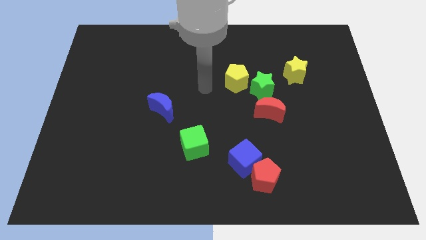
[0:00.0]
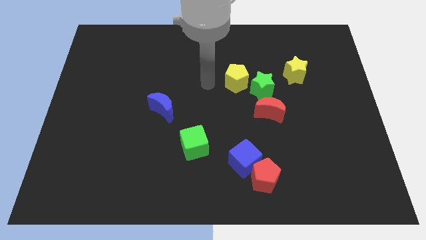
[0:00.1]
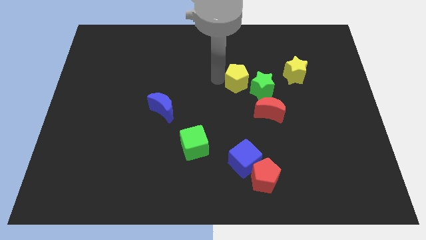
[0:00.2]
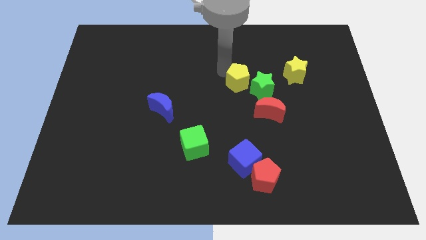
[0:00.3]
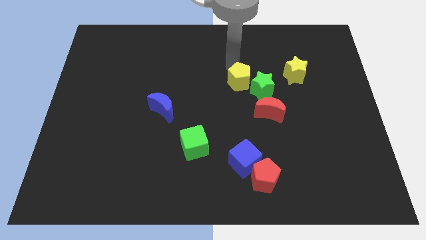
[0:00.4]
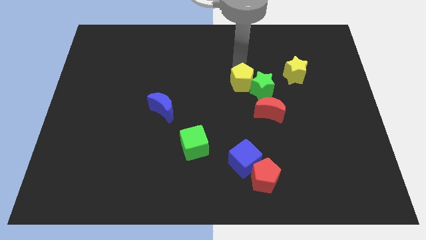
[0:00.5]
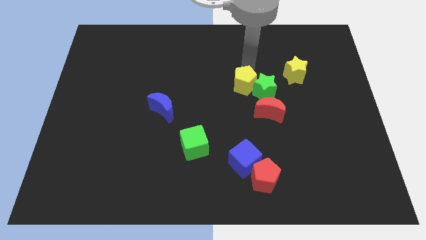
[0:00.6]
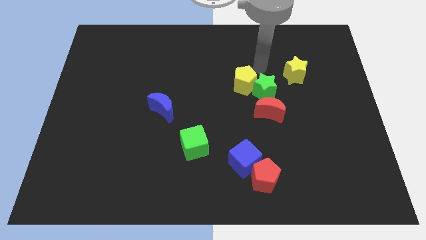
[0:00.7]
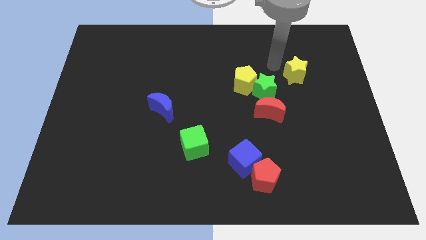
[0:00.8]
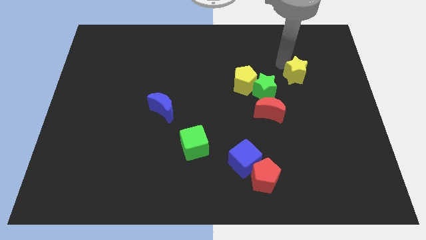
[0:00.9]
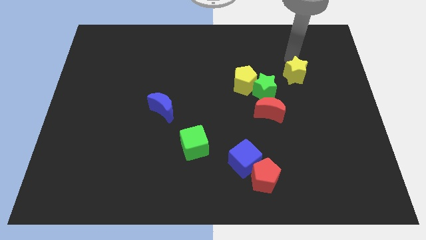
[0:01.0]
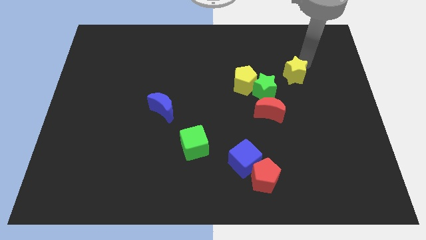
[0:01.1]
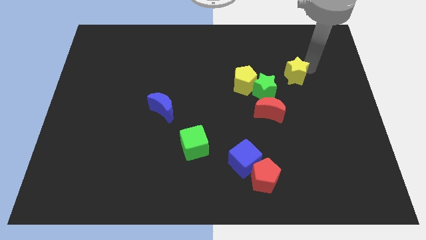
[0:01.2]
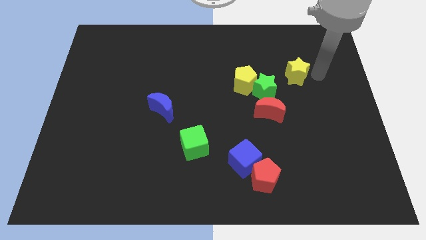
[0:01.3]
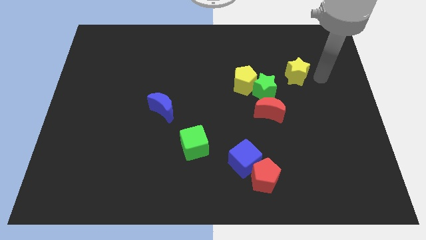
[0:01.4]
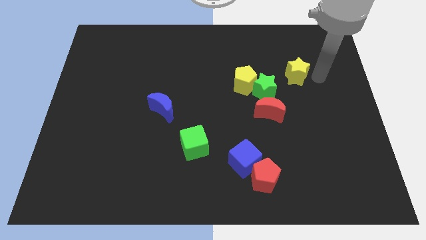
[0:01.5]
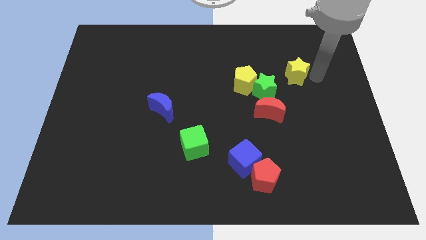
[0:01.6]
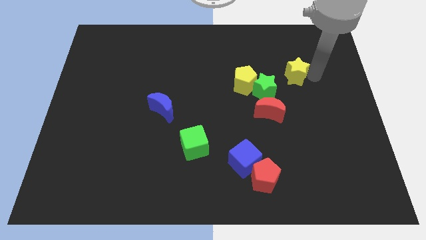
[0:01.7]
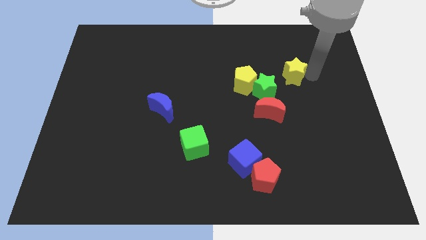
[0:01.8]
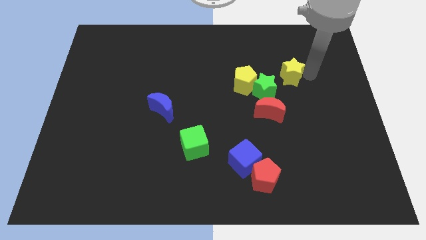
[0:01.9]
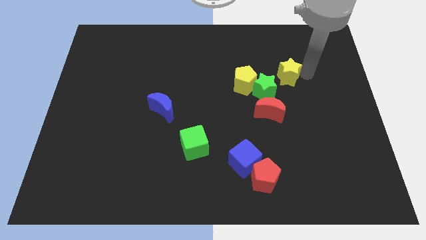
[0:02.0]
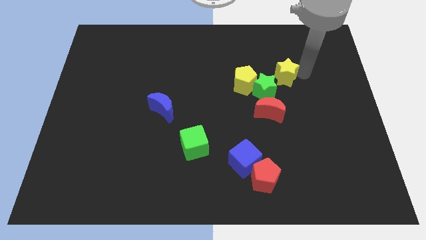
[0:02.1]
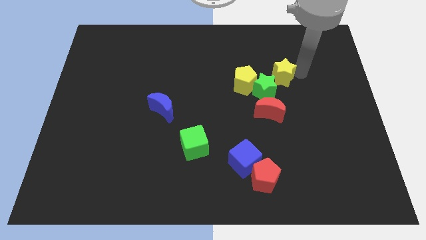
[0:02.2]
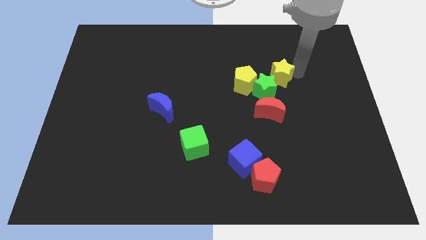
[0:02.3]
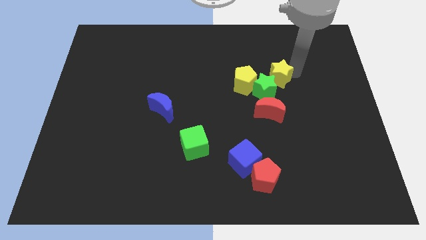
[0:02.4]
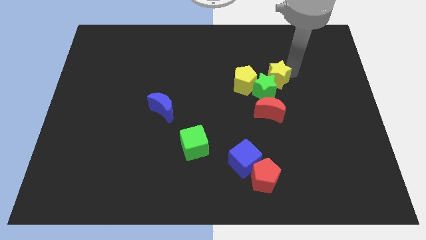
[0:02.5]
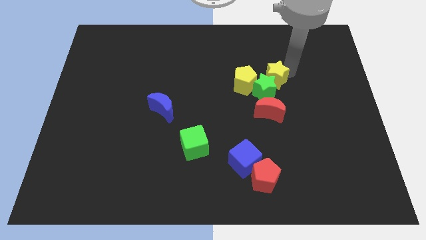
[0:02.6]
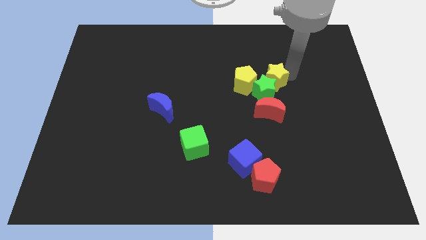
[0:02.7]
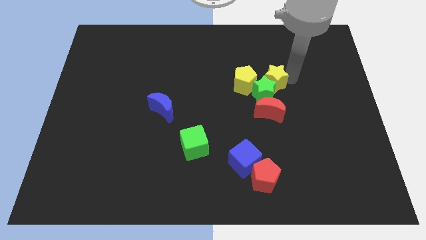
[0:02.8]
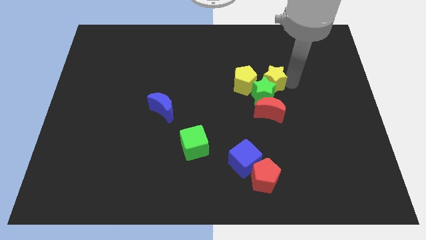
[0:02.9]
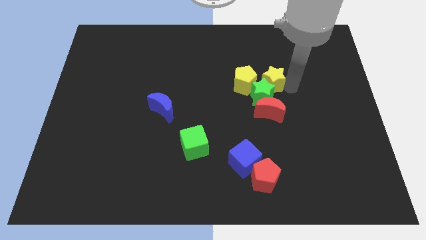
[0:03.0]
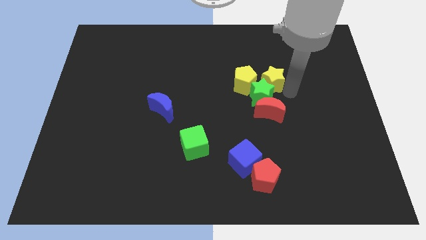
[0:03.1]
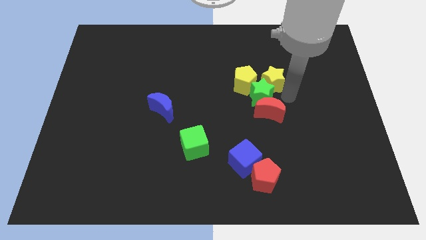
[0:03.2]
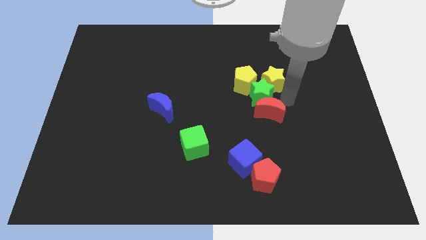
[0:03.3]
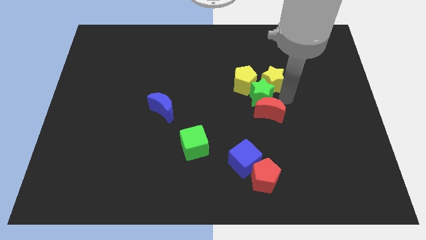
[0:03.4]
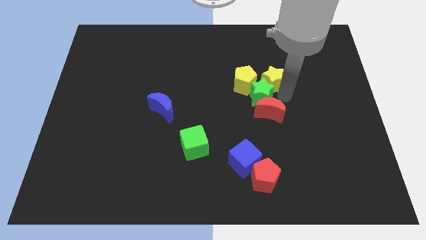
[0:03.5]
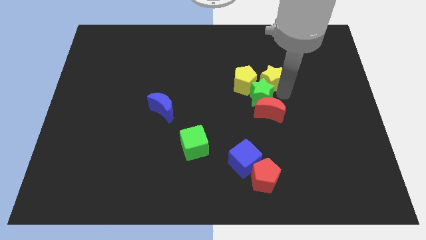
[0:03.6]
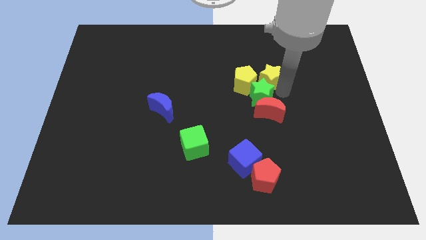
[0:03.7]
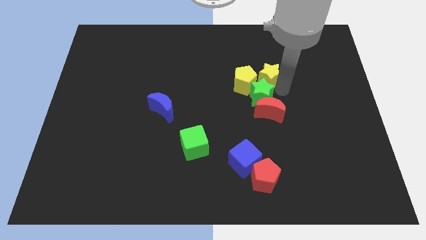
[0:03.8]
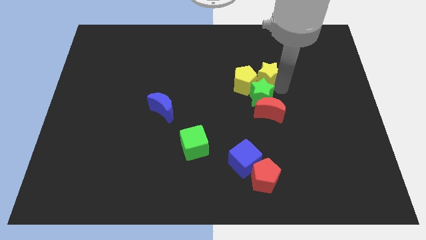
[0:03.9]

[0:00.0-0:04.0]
move the yellow star left slightly

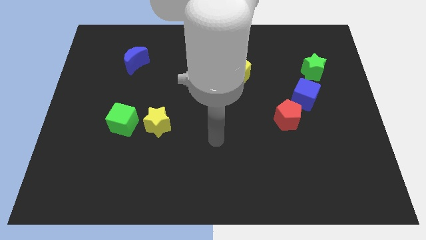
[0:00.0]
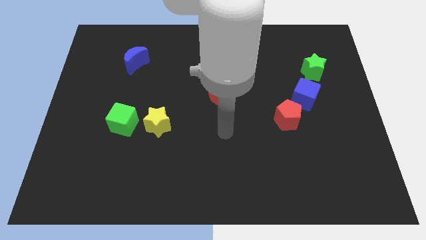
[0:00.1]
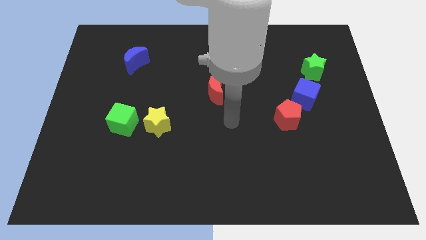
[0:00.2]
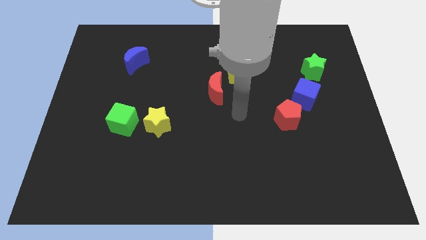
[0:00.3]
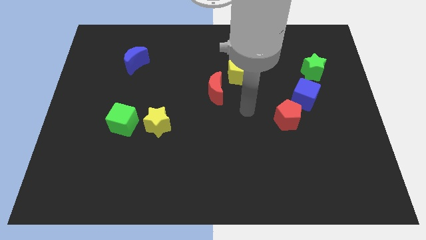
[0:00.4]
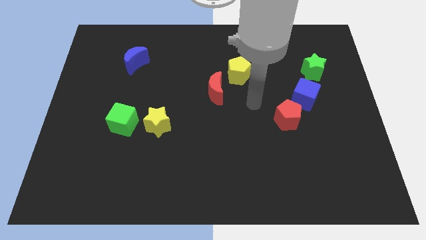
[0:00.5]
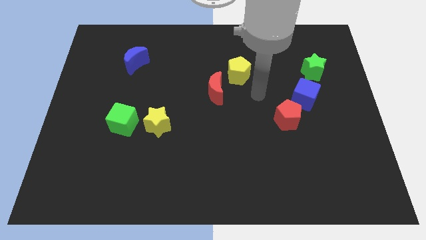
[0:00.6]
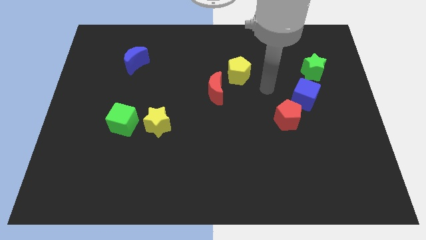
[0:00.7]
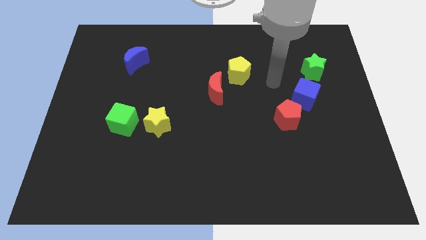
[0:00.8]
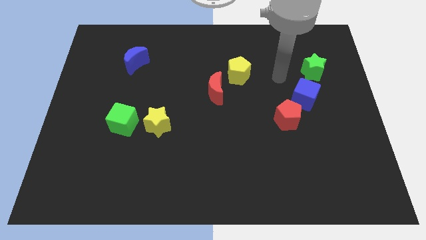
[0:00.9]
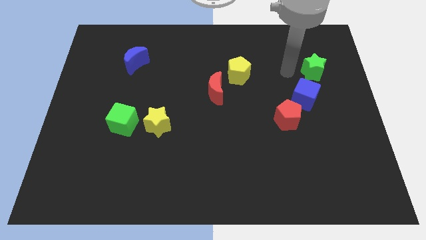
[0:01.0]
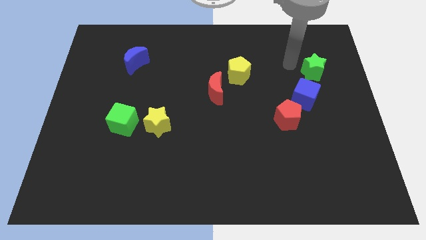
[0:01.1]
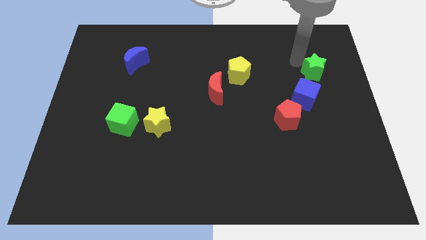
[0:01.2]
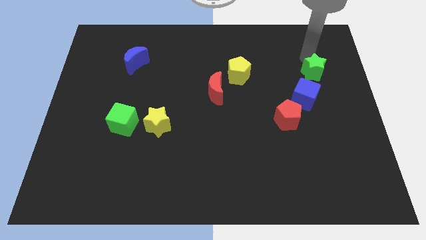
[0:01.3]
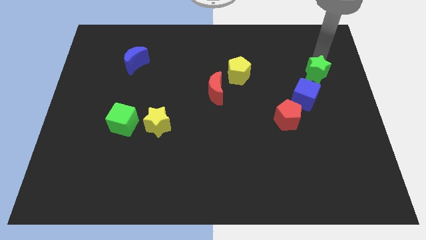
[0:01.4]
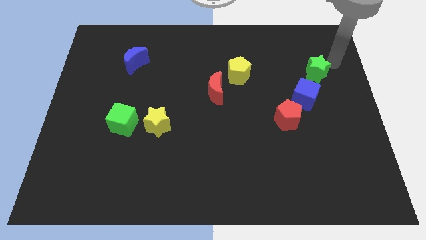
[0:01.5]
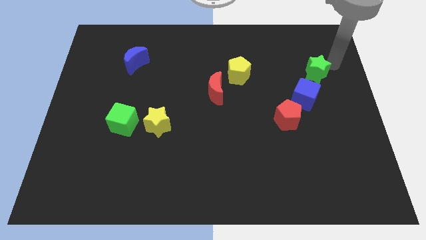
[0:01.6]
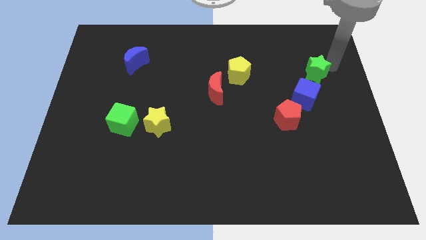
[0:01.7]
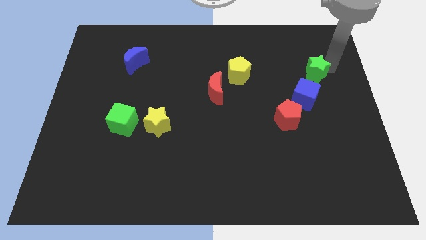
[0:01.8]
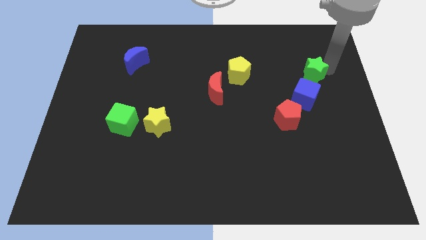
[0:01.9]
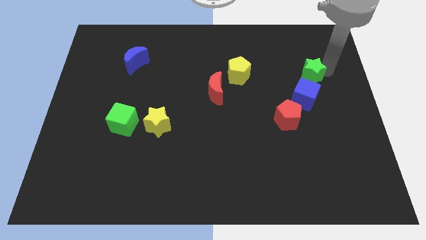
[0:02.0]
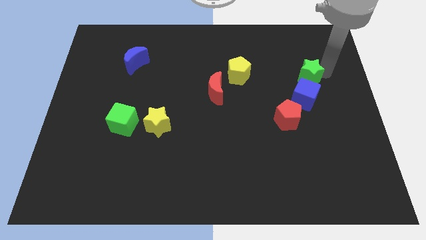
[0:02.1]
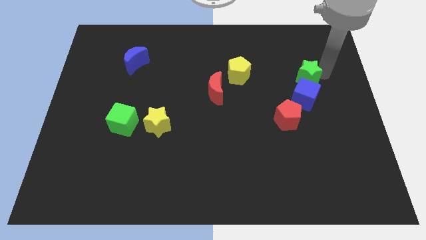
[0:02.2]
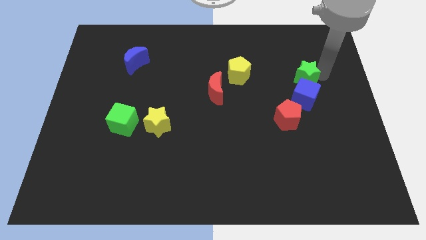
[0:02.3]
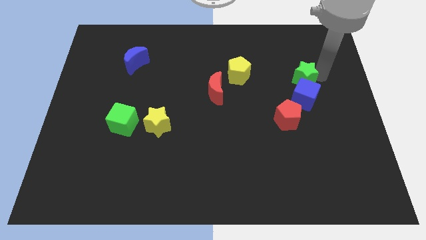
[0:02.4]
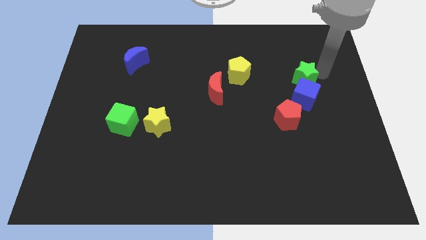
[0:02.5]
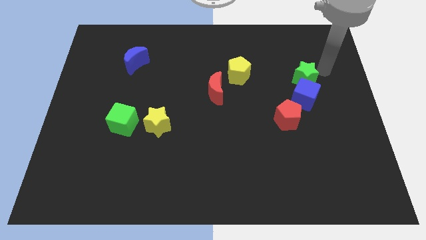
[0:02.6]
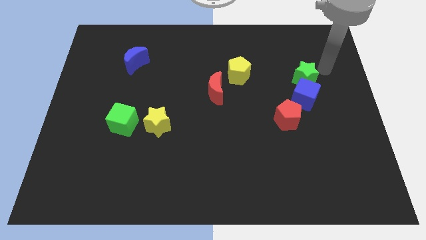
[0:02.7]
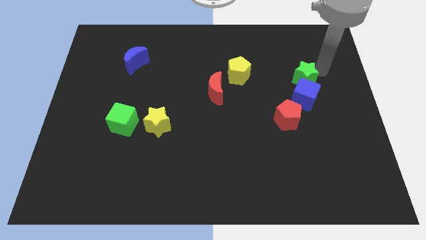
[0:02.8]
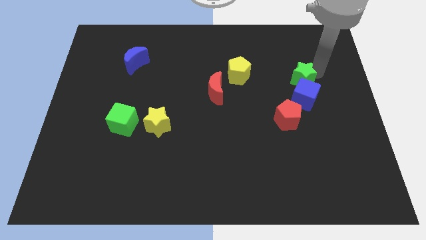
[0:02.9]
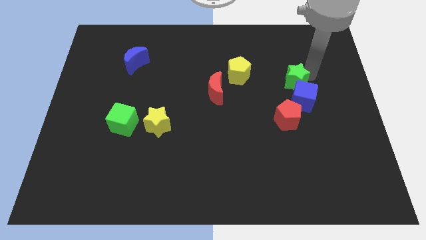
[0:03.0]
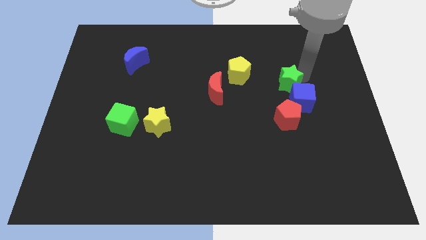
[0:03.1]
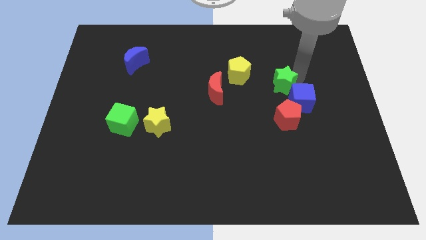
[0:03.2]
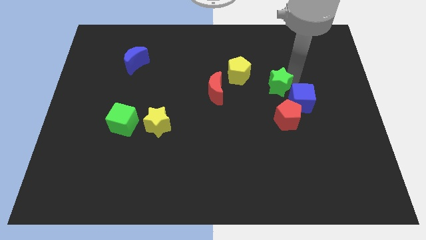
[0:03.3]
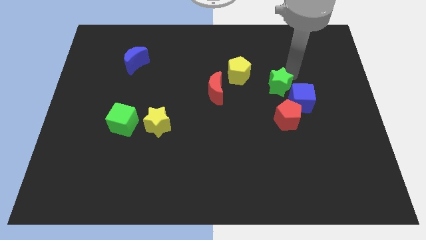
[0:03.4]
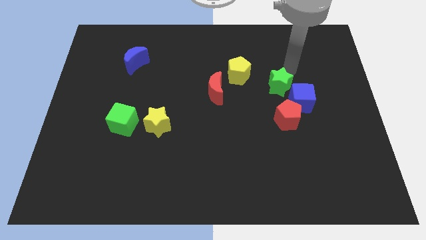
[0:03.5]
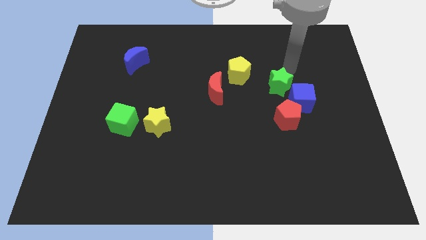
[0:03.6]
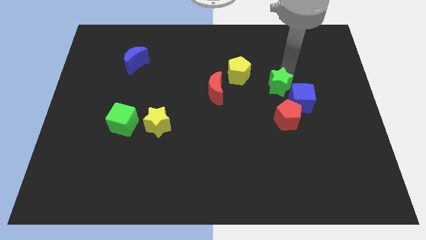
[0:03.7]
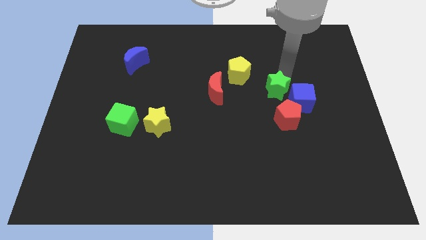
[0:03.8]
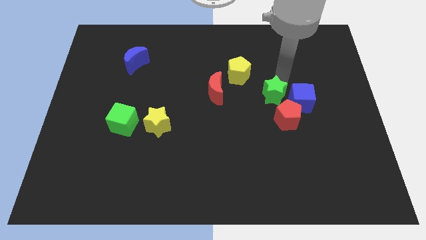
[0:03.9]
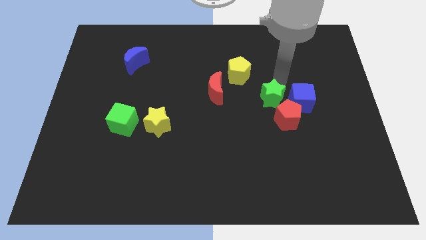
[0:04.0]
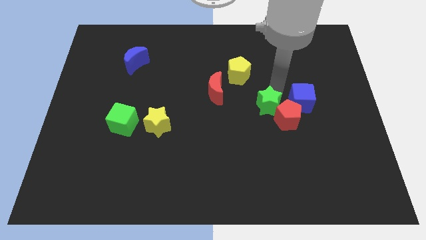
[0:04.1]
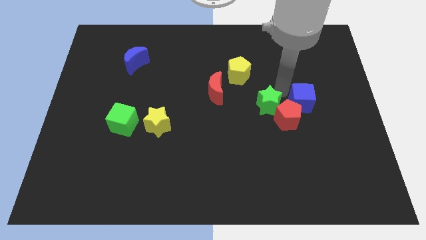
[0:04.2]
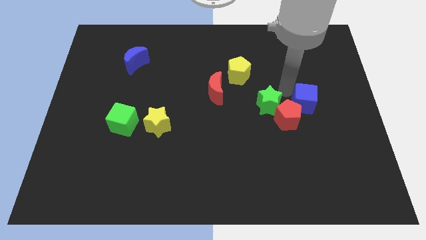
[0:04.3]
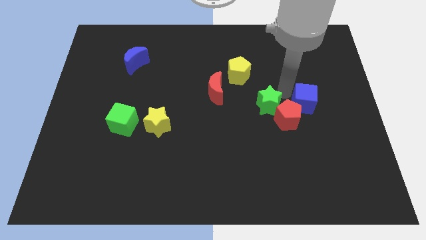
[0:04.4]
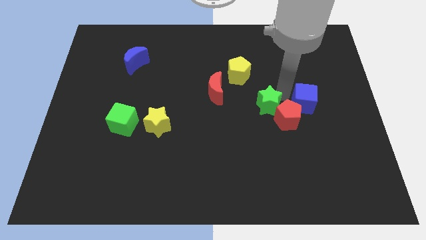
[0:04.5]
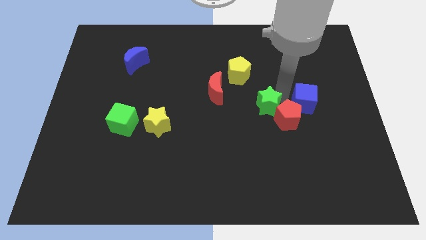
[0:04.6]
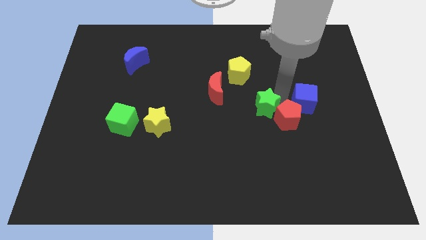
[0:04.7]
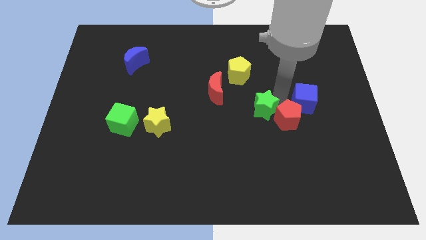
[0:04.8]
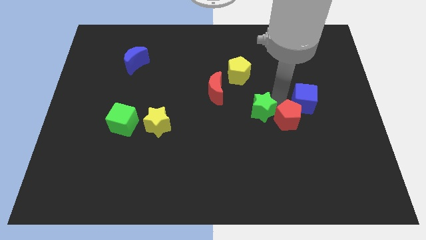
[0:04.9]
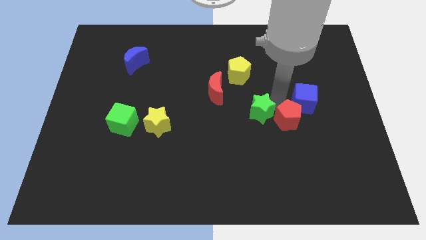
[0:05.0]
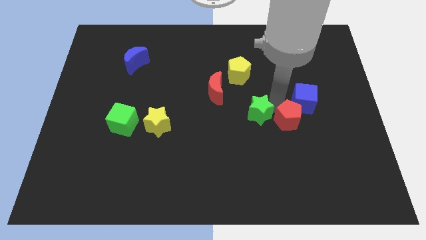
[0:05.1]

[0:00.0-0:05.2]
slide the green star diagonally downwards and to the left
